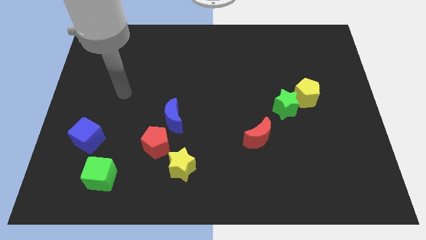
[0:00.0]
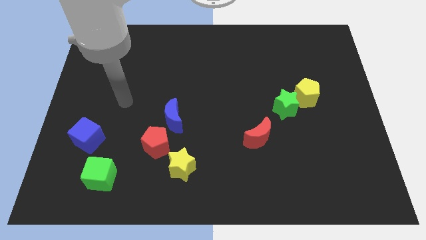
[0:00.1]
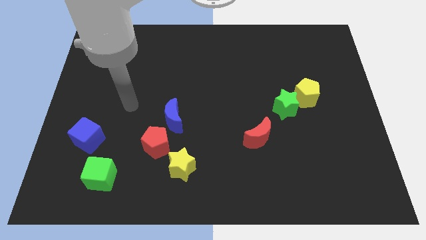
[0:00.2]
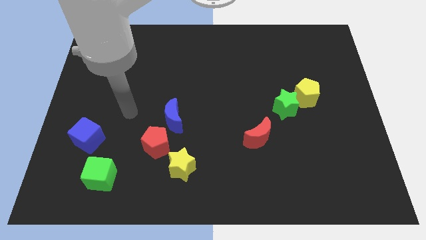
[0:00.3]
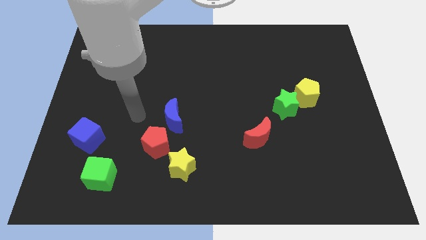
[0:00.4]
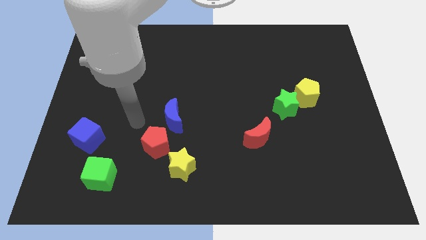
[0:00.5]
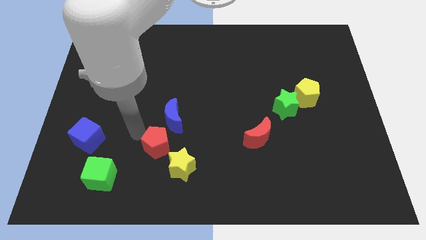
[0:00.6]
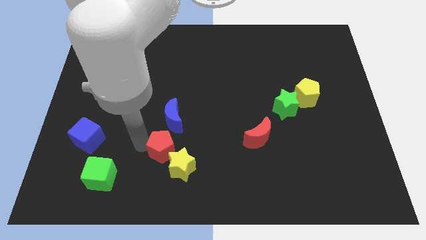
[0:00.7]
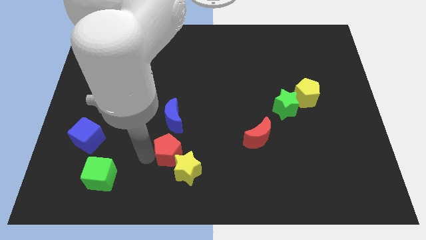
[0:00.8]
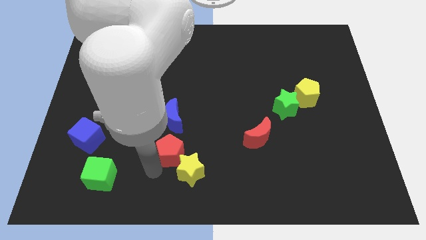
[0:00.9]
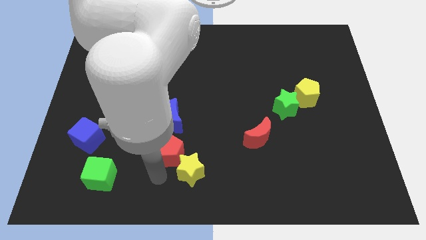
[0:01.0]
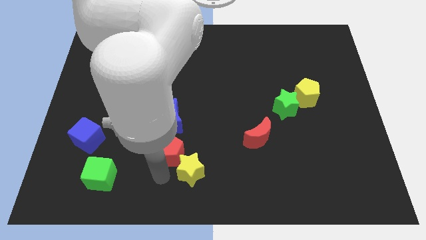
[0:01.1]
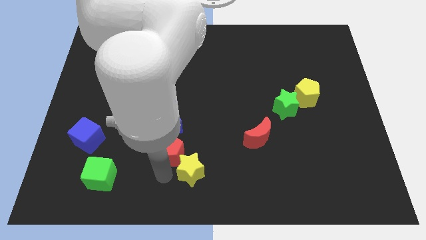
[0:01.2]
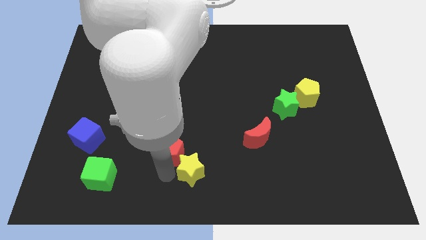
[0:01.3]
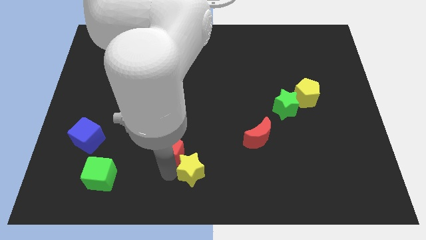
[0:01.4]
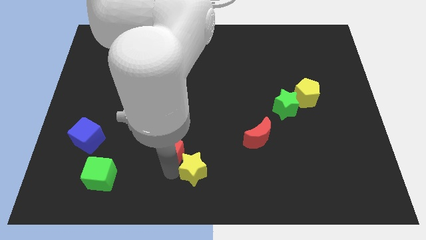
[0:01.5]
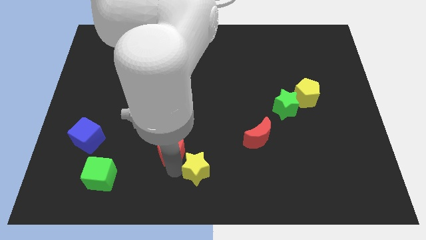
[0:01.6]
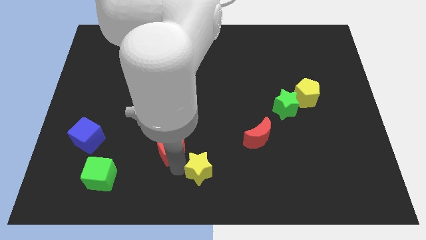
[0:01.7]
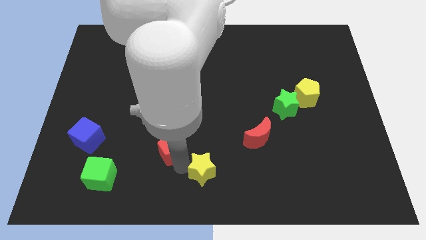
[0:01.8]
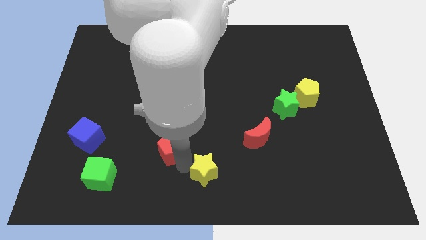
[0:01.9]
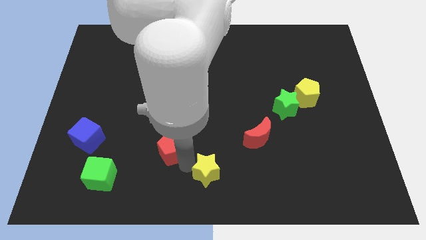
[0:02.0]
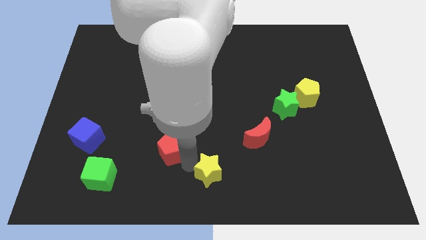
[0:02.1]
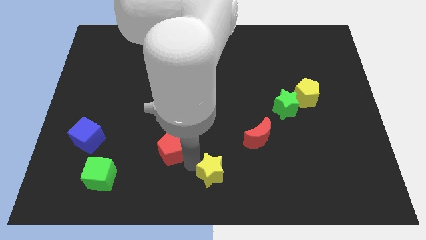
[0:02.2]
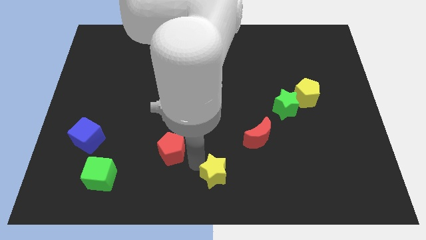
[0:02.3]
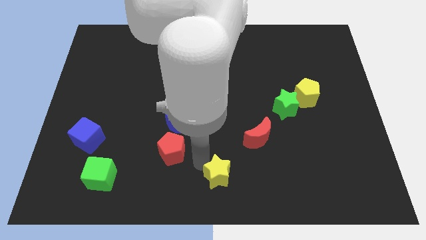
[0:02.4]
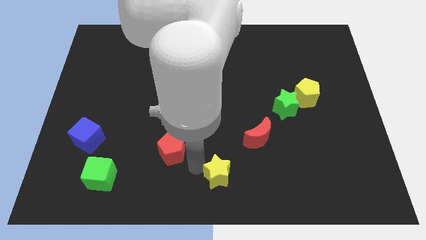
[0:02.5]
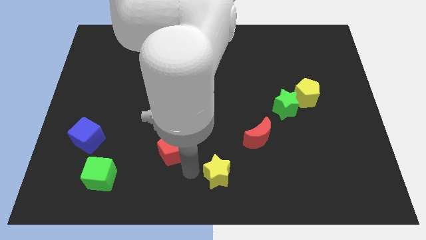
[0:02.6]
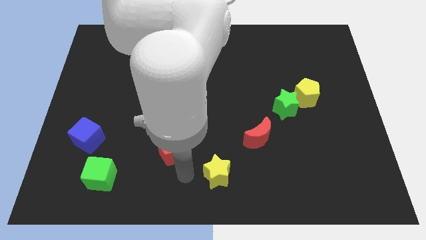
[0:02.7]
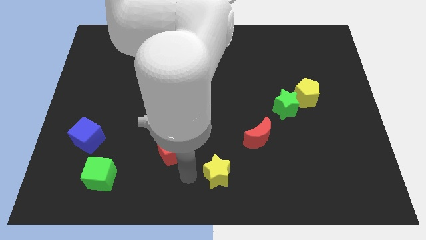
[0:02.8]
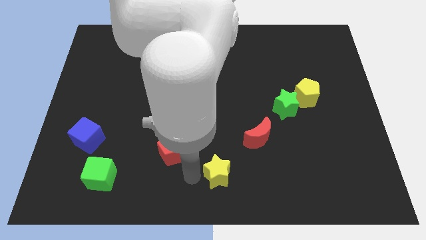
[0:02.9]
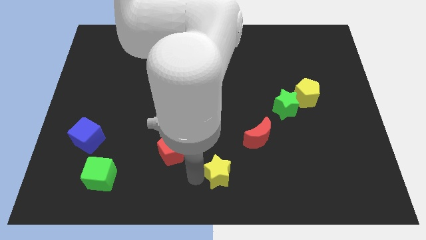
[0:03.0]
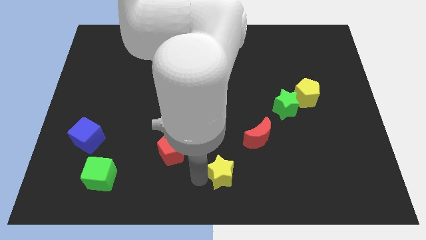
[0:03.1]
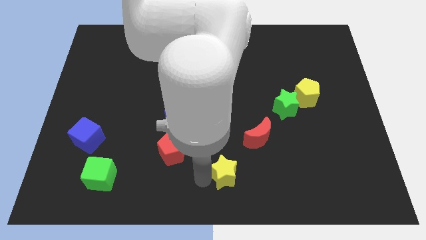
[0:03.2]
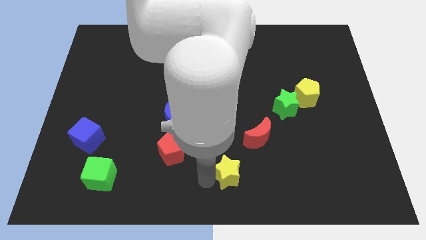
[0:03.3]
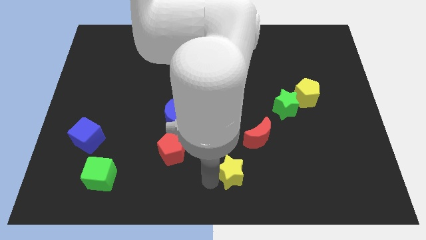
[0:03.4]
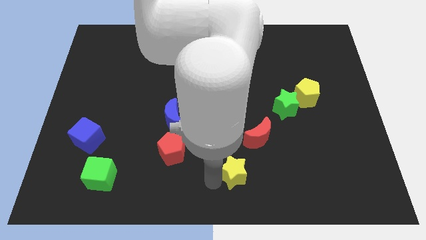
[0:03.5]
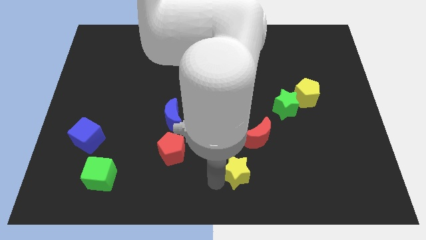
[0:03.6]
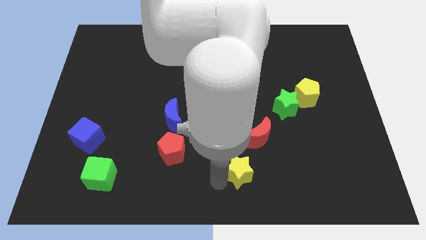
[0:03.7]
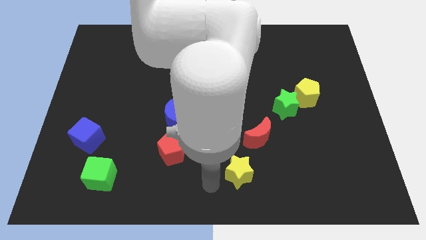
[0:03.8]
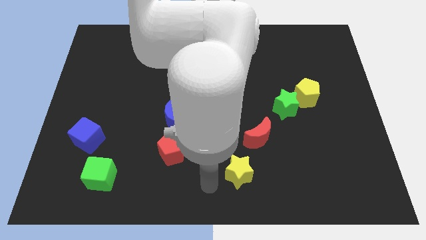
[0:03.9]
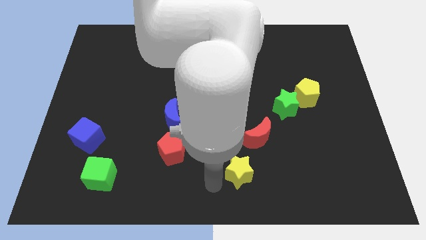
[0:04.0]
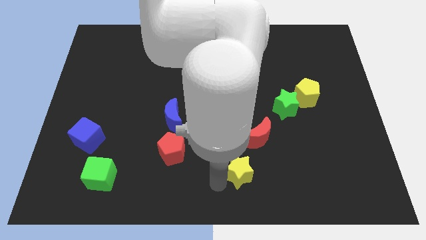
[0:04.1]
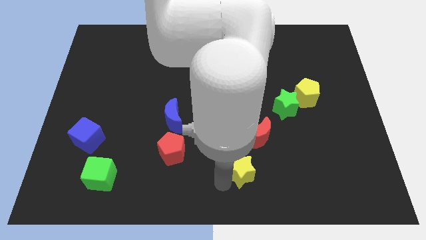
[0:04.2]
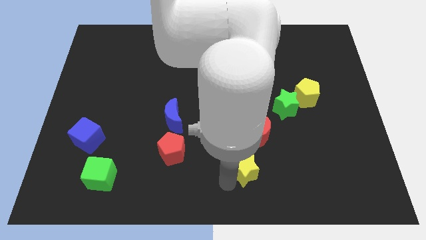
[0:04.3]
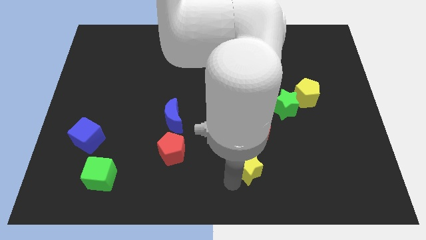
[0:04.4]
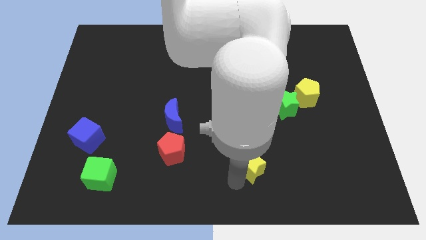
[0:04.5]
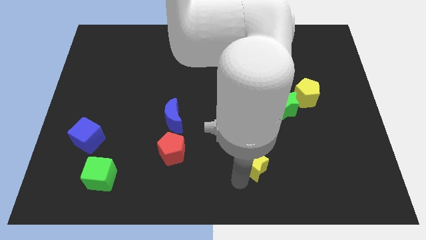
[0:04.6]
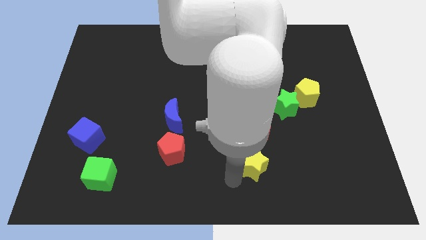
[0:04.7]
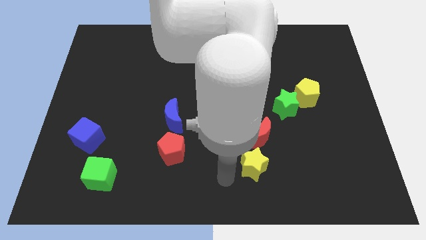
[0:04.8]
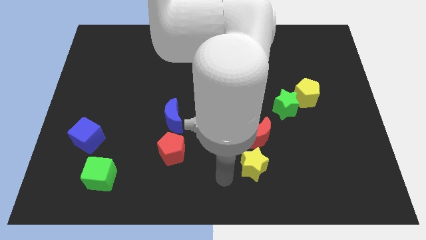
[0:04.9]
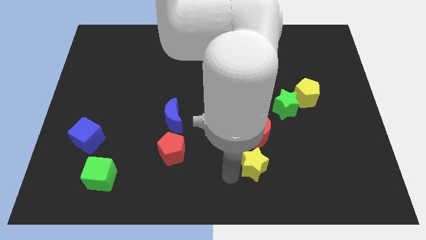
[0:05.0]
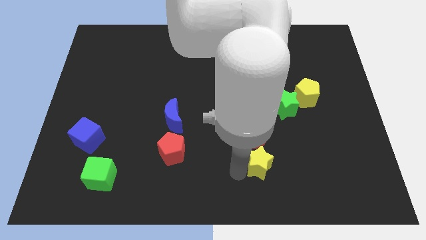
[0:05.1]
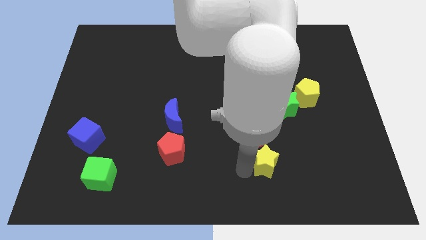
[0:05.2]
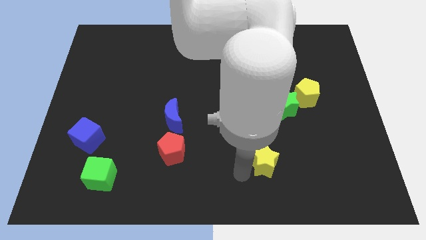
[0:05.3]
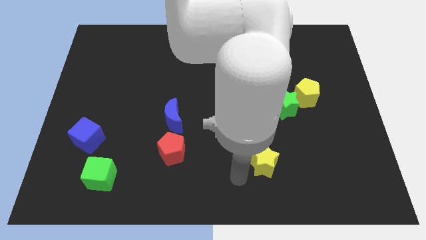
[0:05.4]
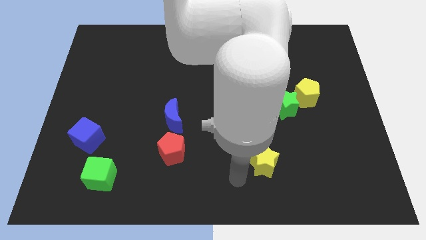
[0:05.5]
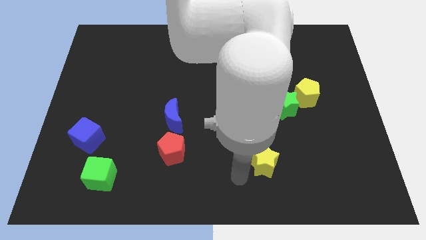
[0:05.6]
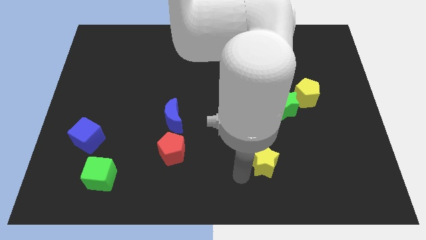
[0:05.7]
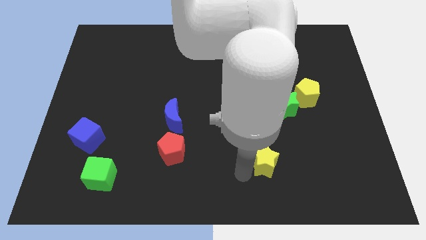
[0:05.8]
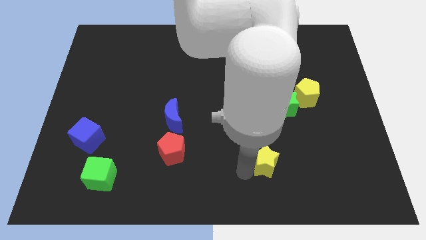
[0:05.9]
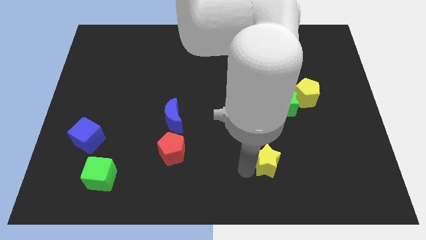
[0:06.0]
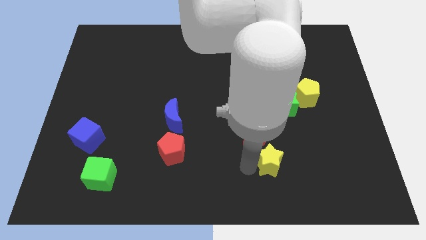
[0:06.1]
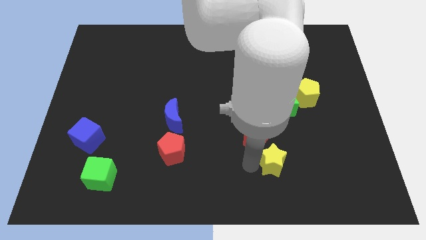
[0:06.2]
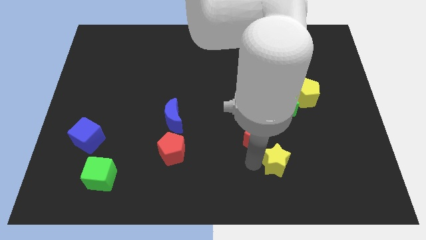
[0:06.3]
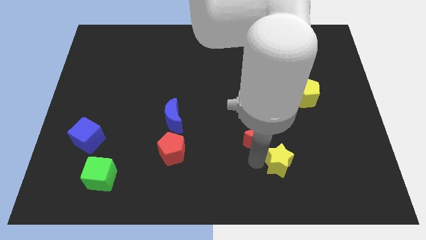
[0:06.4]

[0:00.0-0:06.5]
move the yellow star to the bottom of the green star

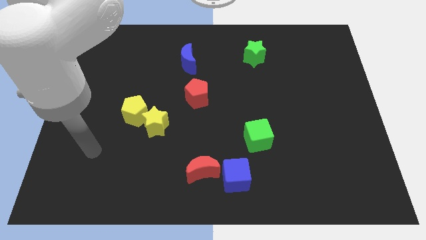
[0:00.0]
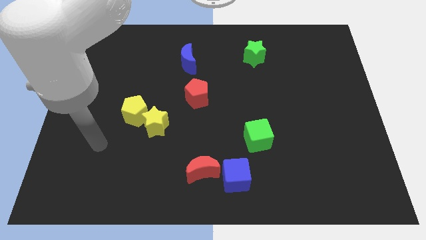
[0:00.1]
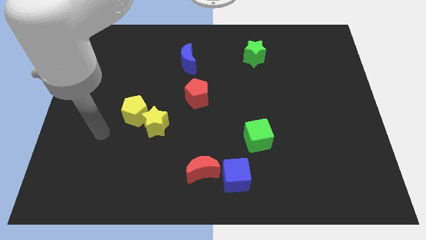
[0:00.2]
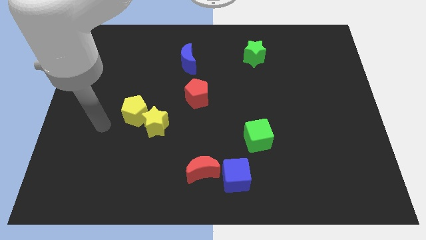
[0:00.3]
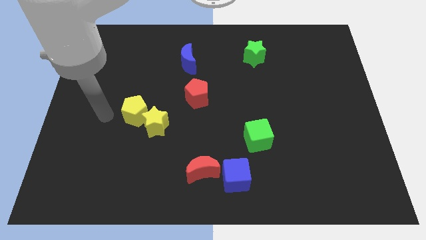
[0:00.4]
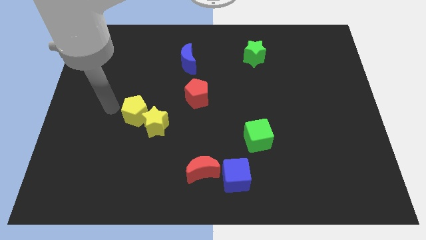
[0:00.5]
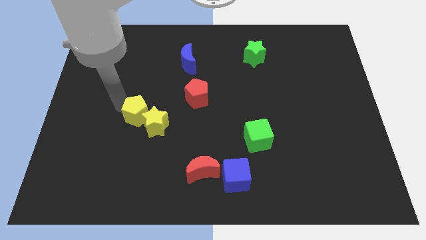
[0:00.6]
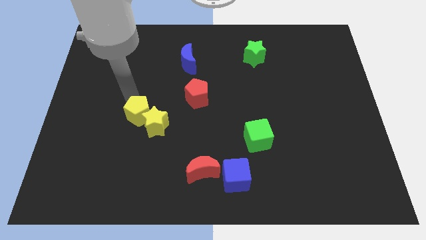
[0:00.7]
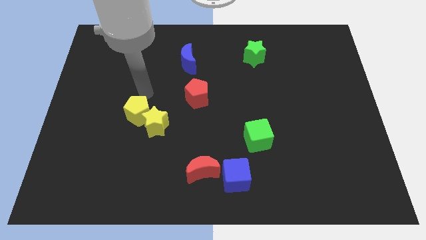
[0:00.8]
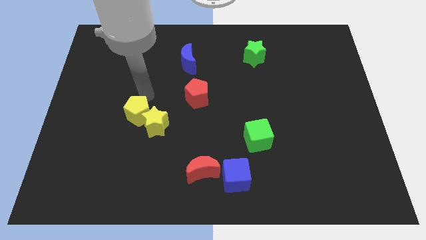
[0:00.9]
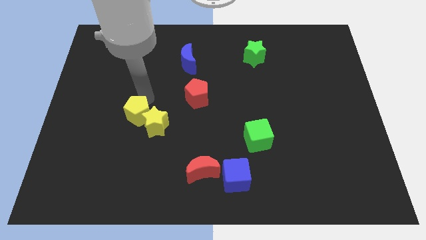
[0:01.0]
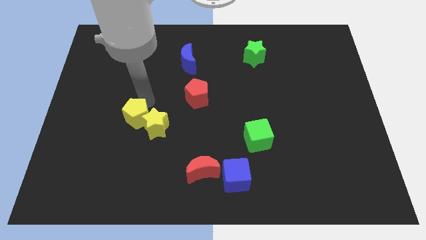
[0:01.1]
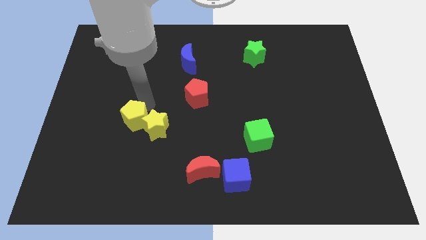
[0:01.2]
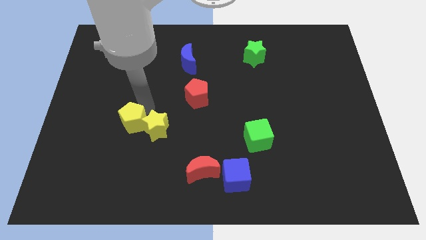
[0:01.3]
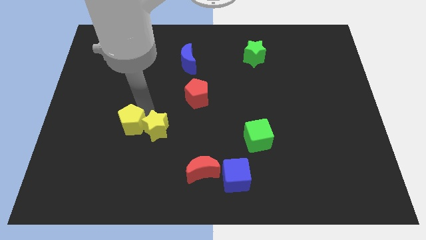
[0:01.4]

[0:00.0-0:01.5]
push the yellow pentagon to the bottom left of the yellow star
